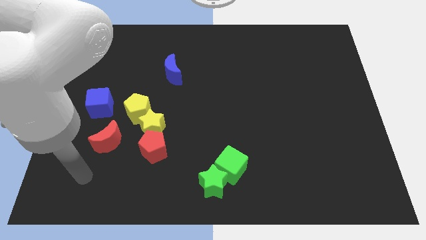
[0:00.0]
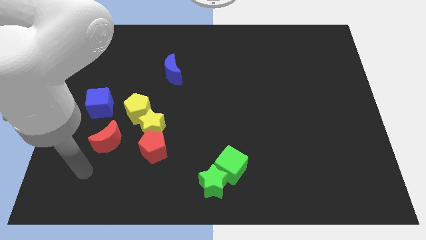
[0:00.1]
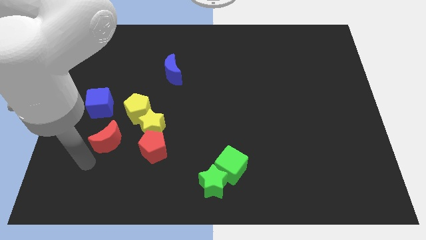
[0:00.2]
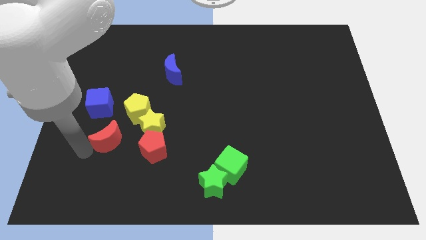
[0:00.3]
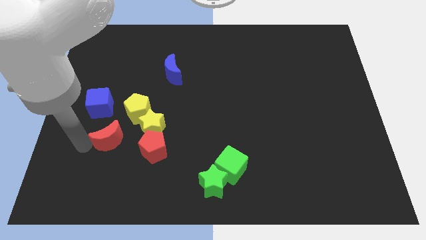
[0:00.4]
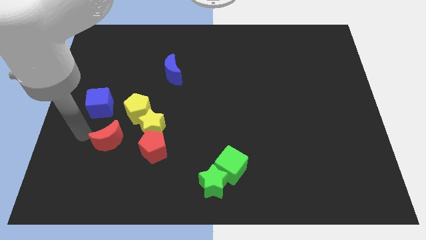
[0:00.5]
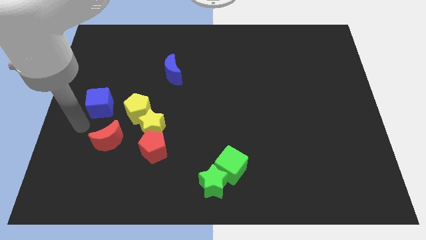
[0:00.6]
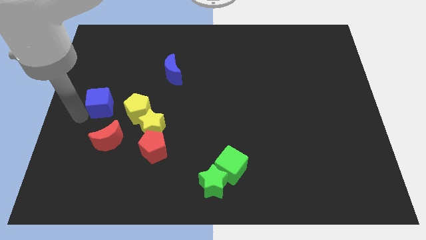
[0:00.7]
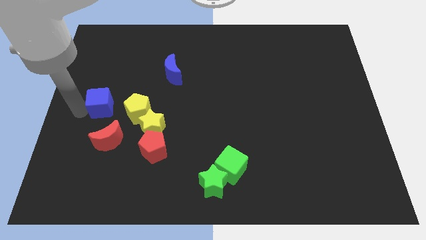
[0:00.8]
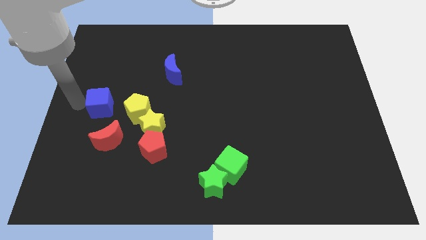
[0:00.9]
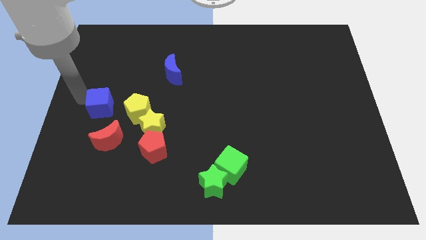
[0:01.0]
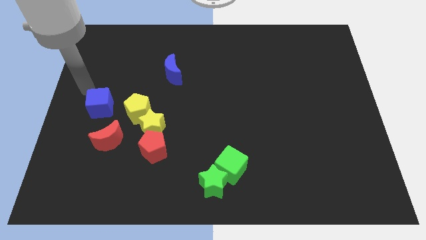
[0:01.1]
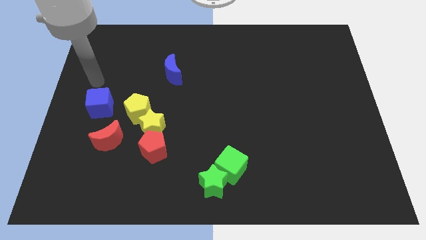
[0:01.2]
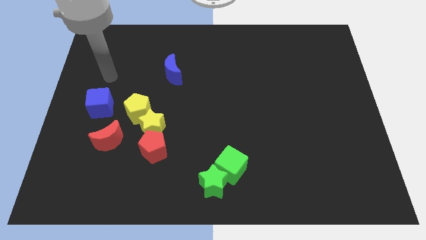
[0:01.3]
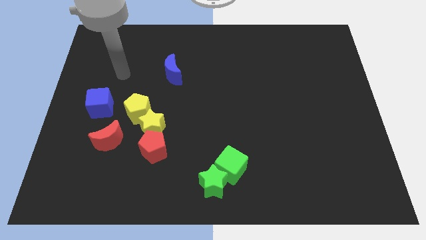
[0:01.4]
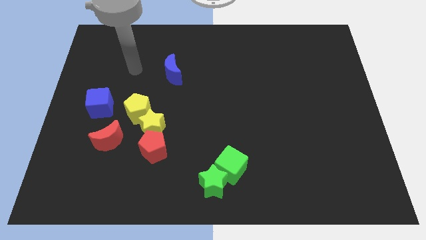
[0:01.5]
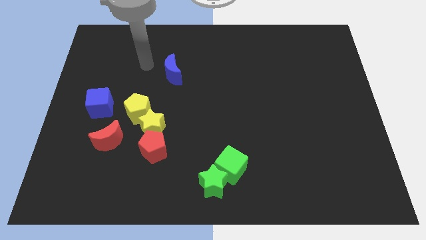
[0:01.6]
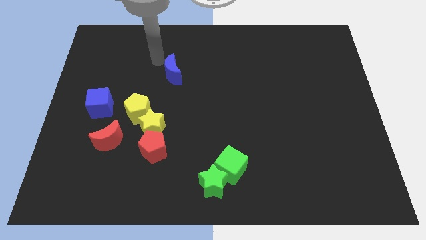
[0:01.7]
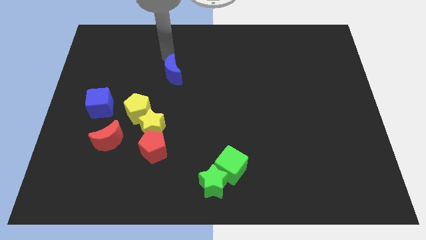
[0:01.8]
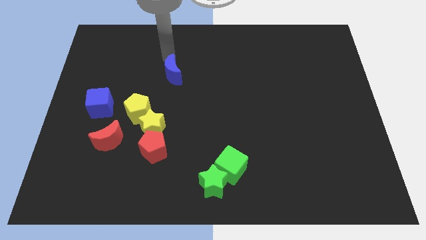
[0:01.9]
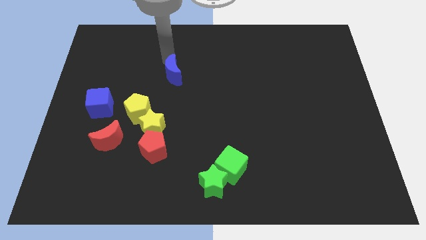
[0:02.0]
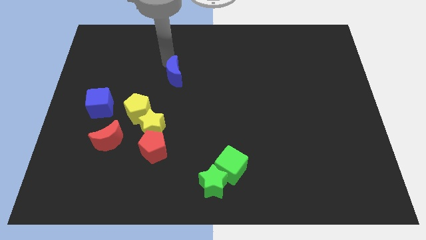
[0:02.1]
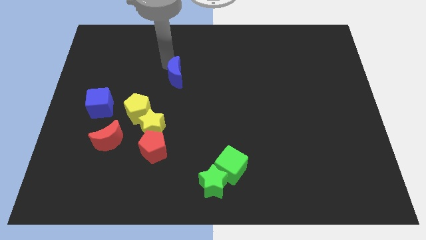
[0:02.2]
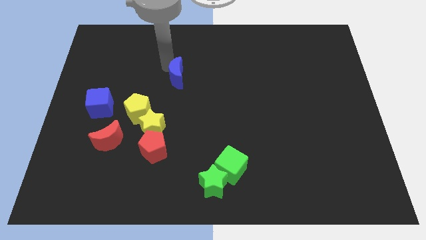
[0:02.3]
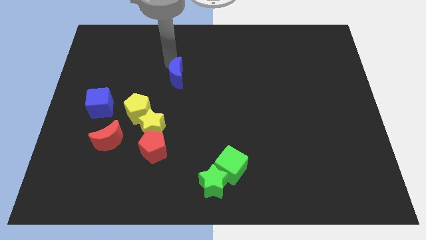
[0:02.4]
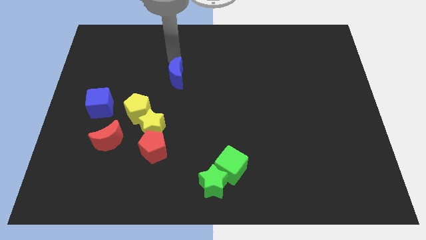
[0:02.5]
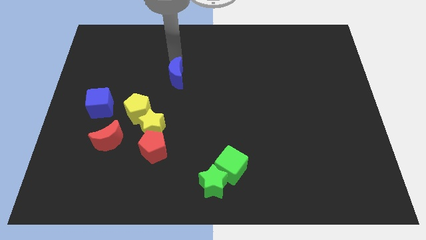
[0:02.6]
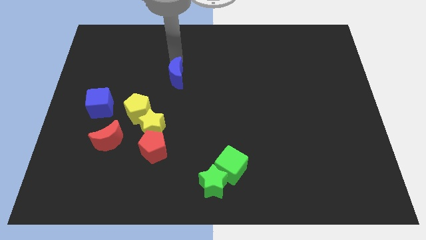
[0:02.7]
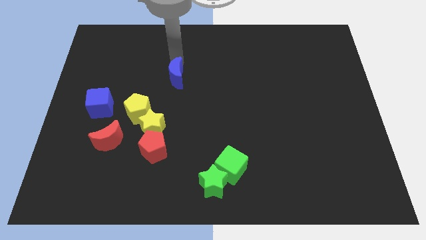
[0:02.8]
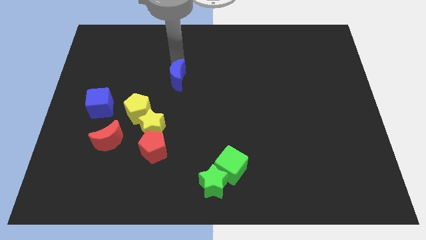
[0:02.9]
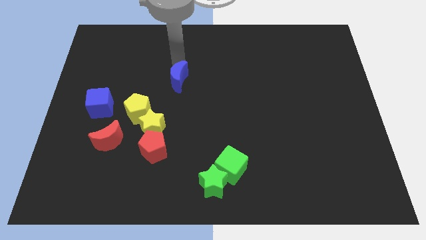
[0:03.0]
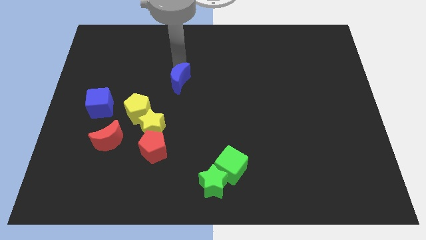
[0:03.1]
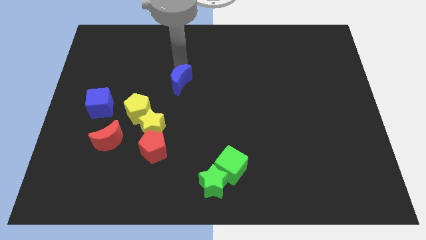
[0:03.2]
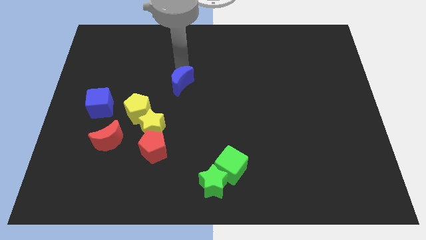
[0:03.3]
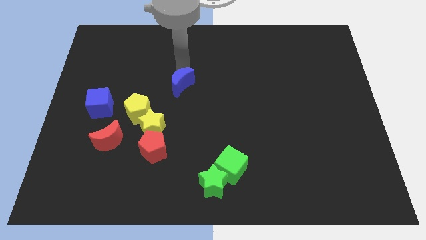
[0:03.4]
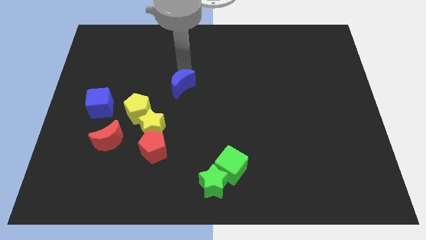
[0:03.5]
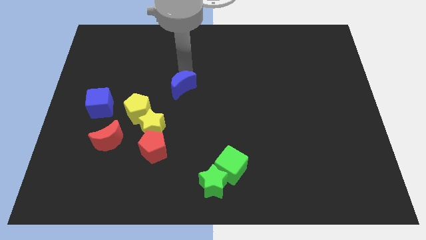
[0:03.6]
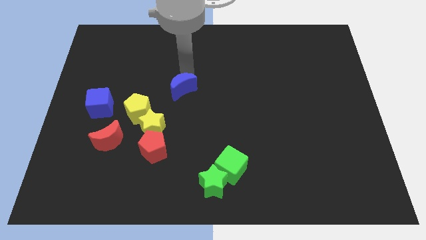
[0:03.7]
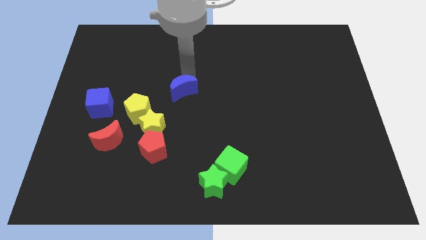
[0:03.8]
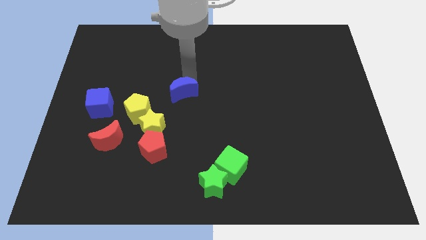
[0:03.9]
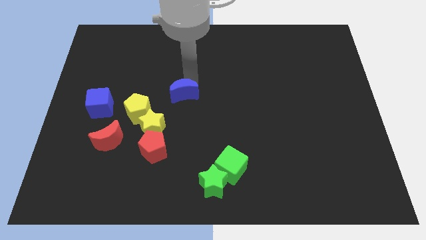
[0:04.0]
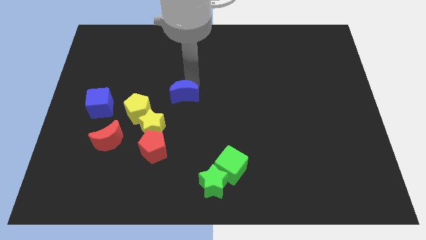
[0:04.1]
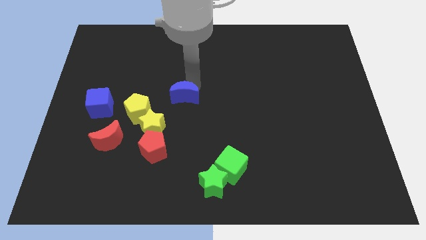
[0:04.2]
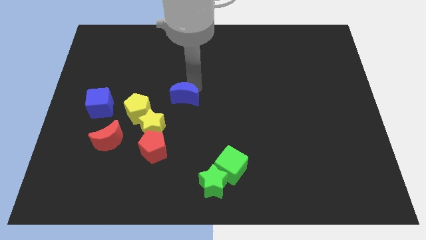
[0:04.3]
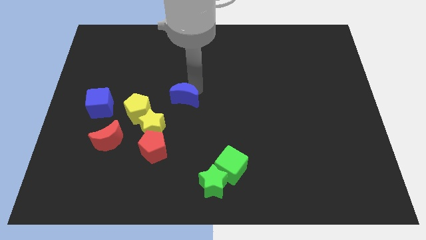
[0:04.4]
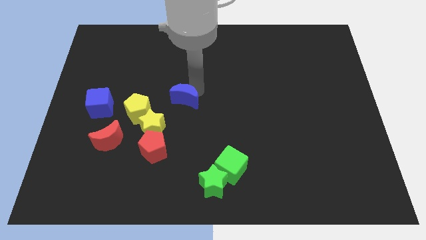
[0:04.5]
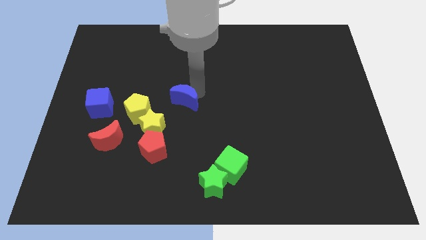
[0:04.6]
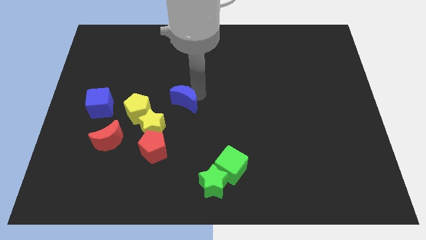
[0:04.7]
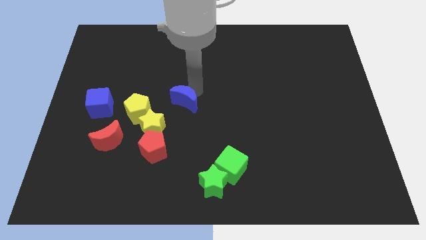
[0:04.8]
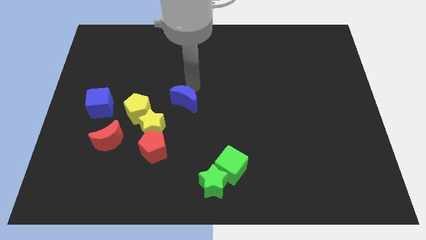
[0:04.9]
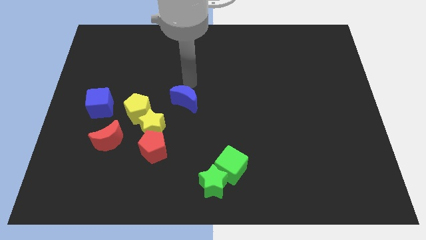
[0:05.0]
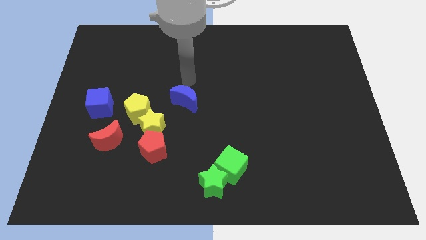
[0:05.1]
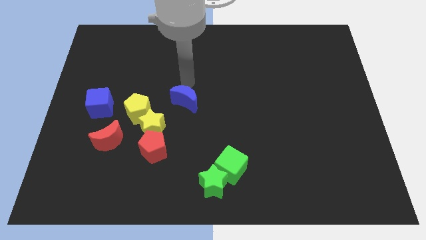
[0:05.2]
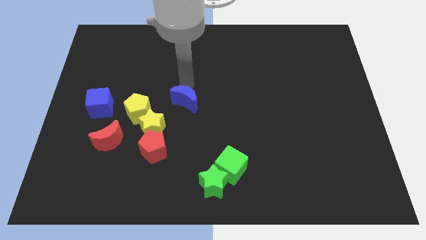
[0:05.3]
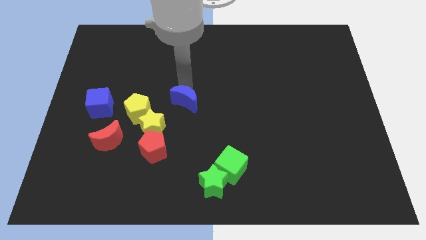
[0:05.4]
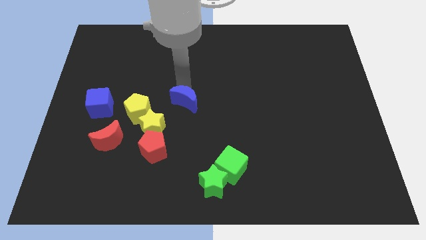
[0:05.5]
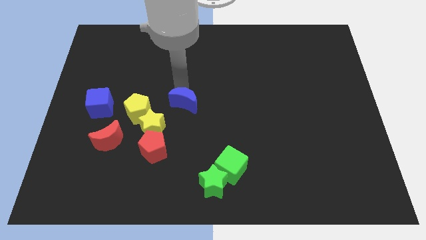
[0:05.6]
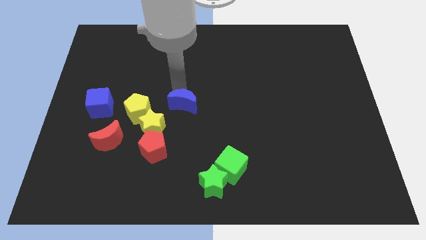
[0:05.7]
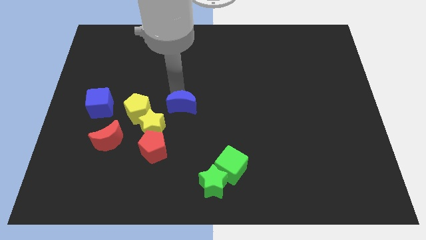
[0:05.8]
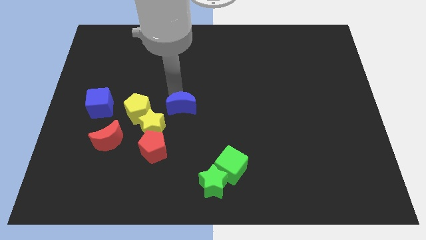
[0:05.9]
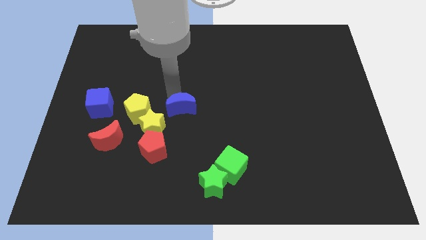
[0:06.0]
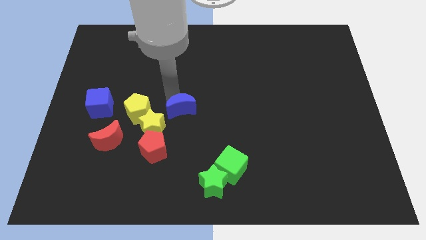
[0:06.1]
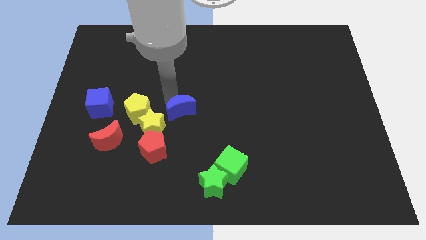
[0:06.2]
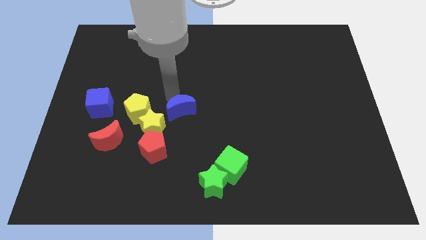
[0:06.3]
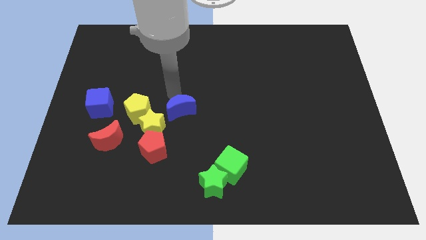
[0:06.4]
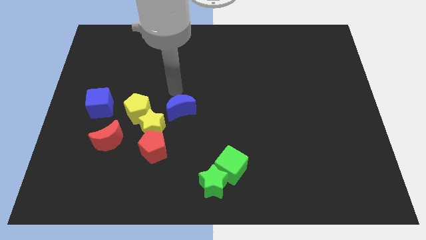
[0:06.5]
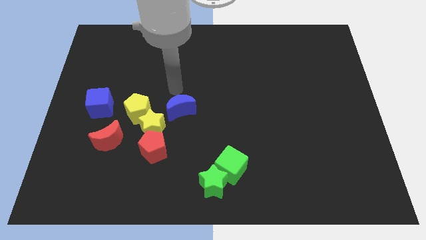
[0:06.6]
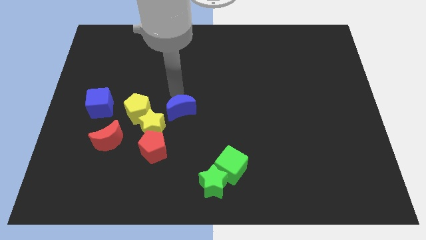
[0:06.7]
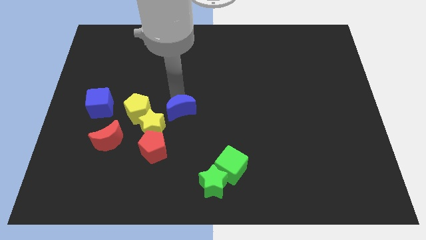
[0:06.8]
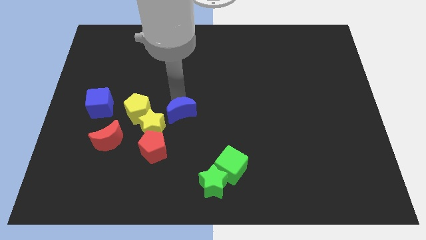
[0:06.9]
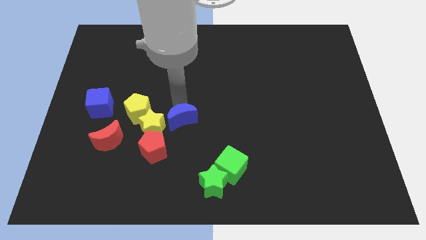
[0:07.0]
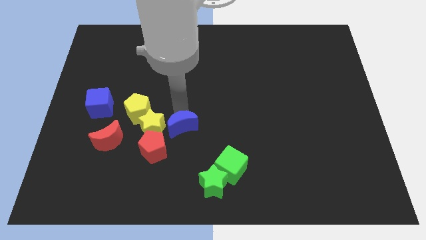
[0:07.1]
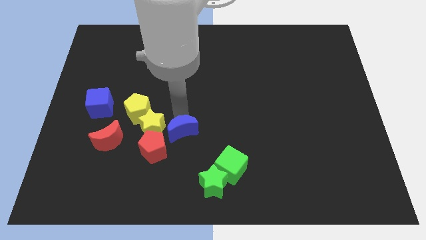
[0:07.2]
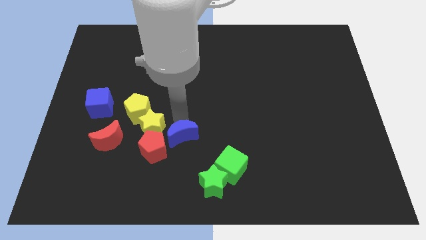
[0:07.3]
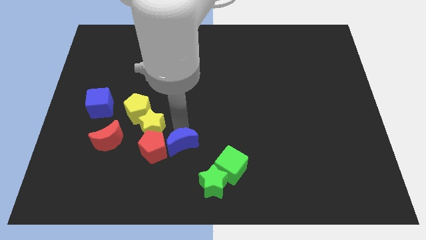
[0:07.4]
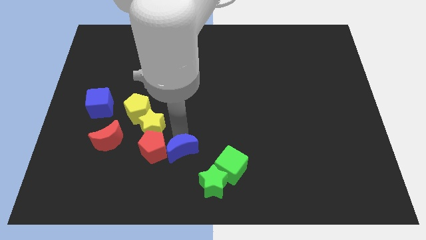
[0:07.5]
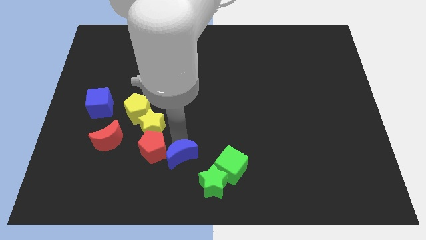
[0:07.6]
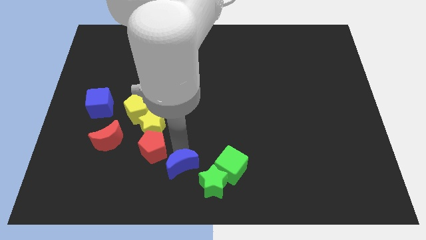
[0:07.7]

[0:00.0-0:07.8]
move the blue moon to the bottom side
